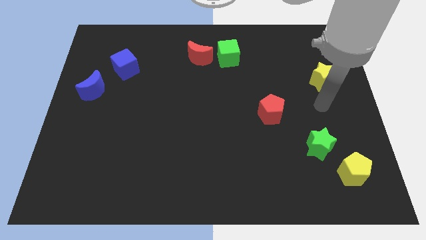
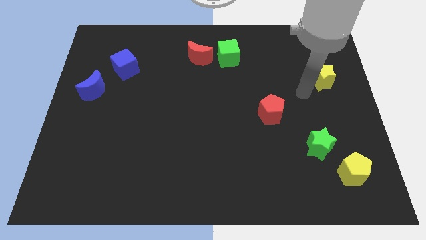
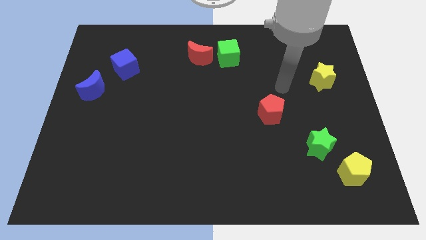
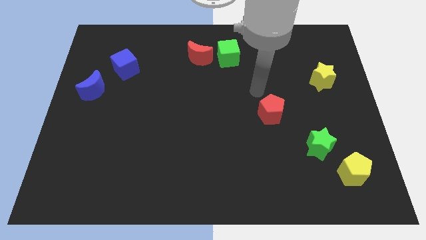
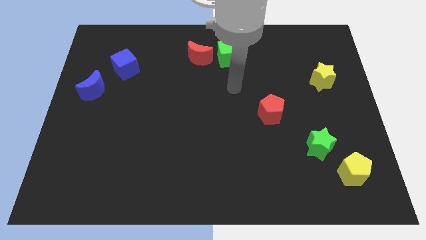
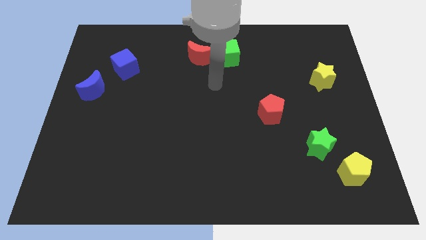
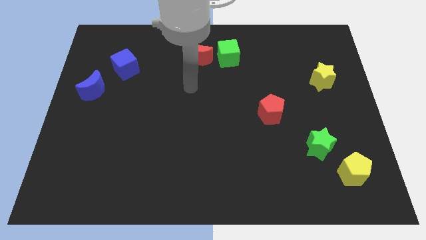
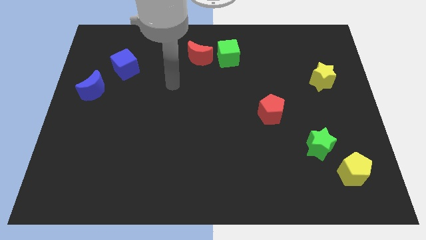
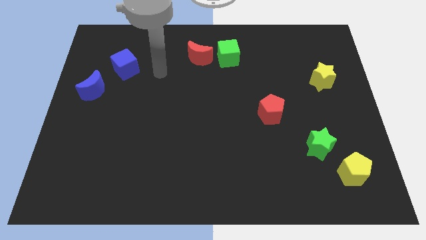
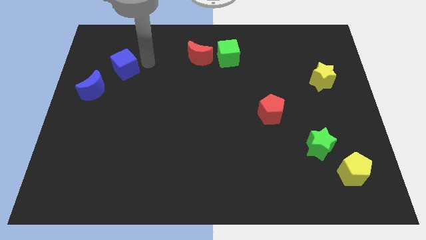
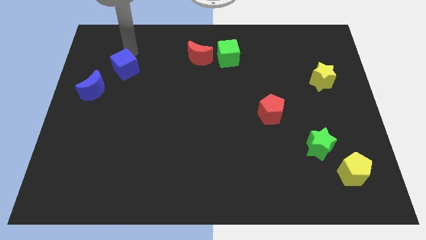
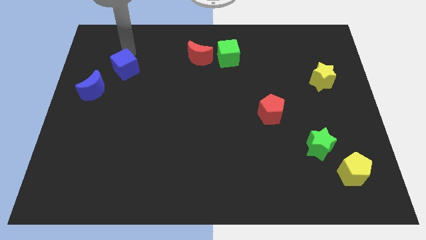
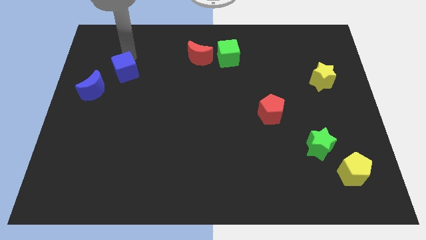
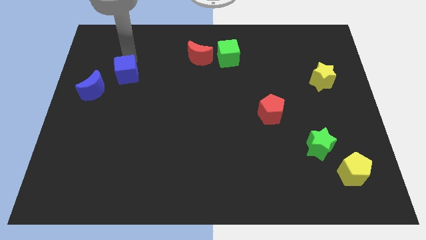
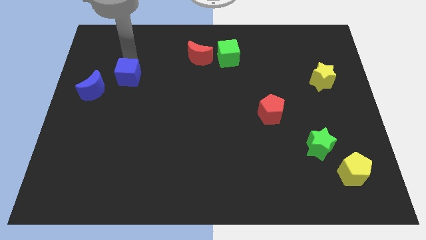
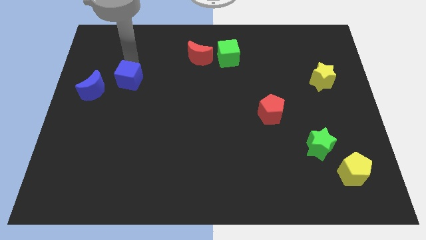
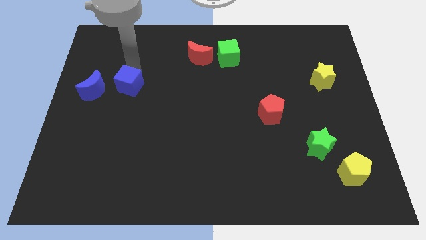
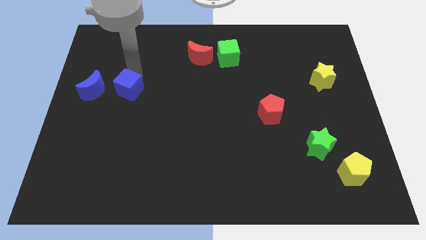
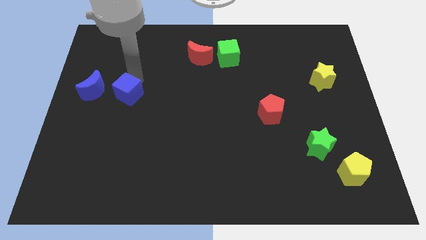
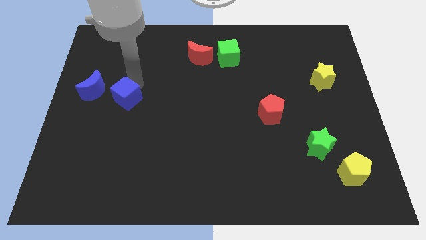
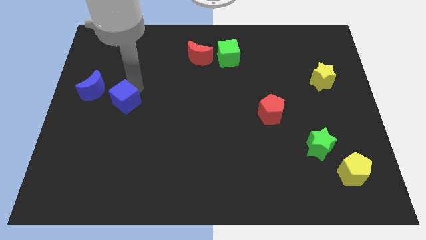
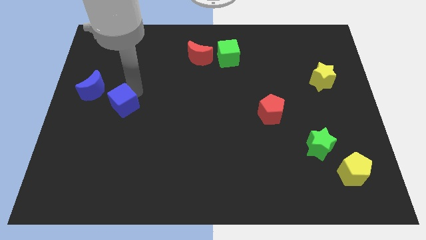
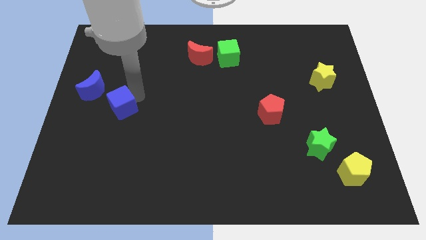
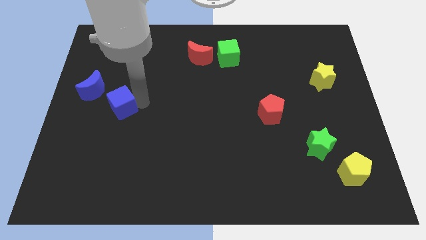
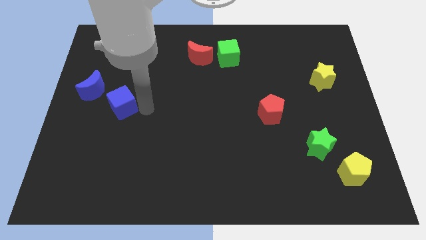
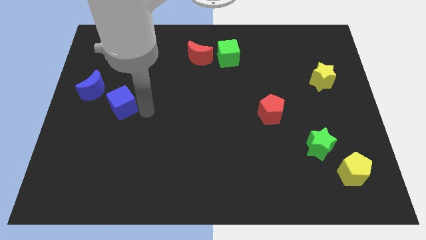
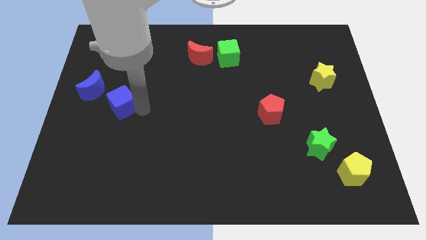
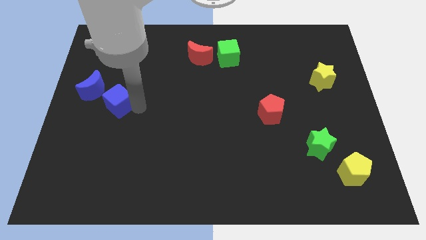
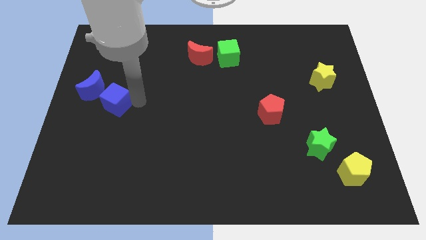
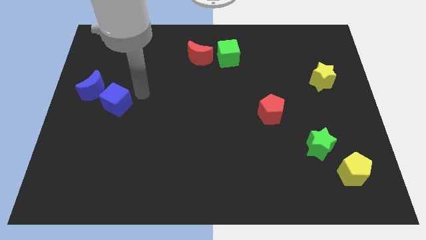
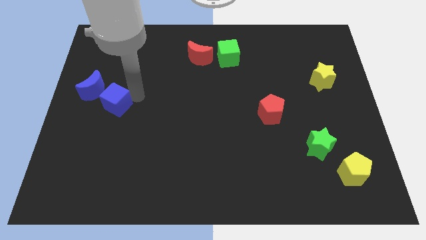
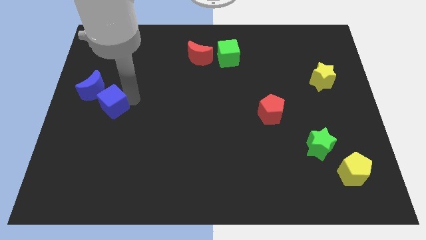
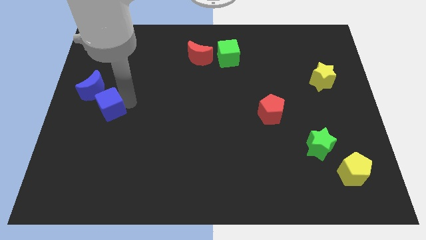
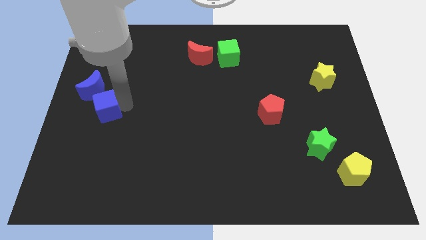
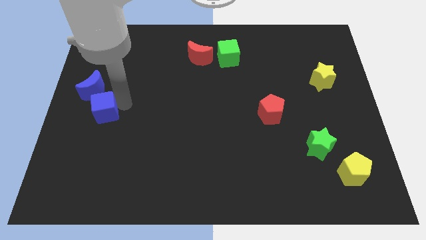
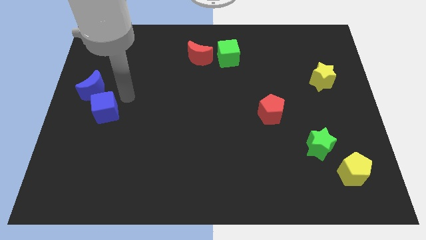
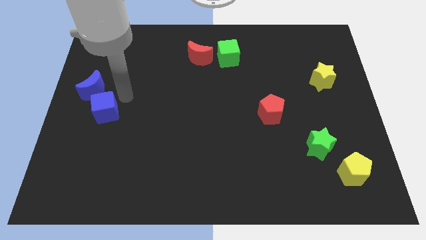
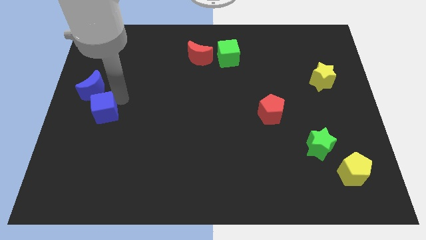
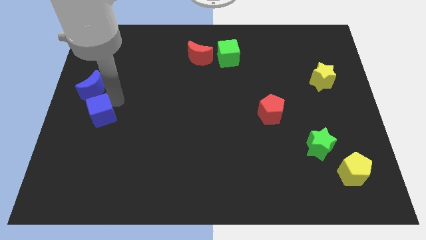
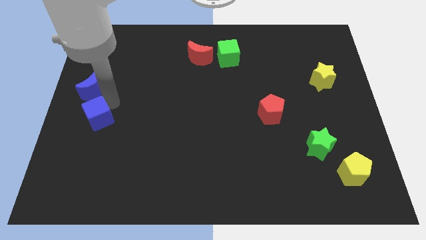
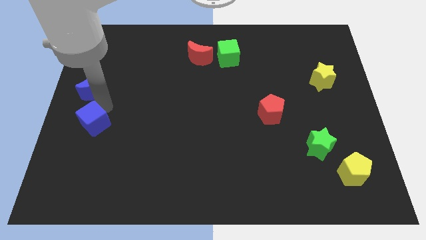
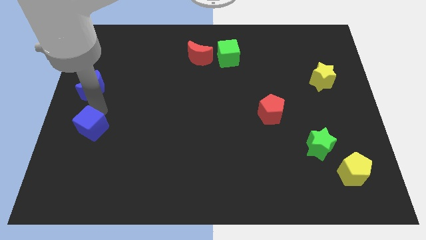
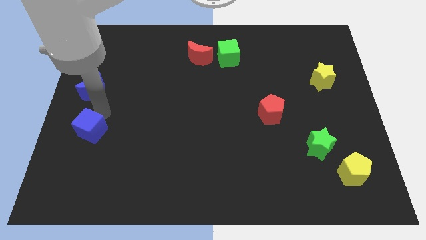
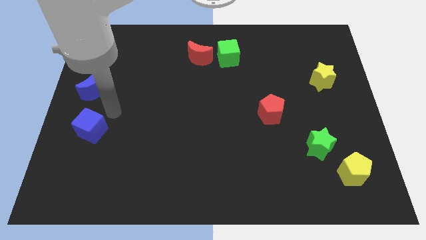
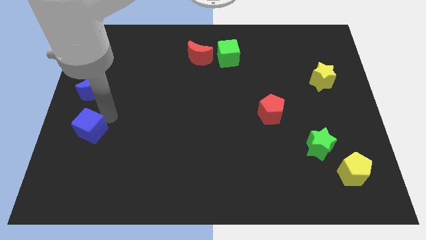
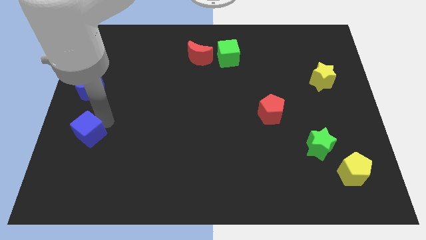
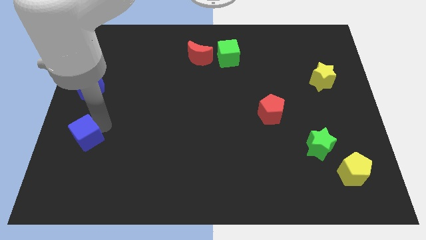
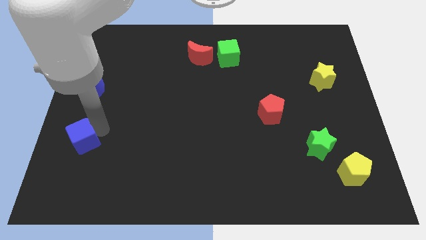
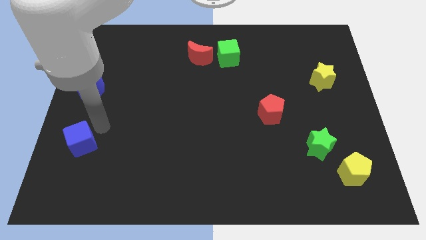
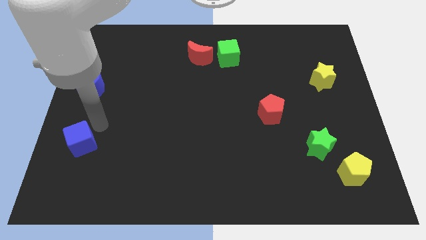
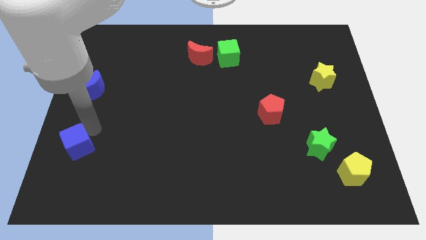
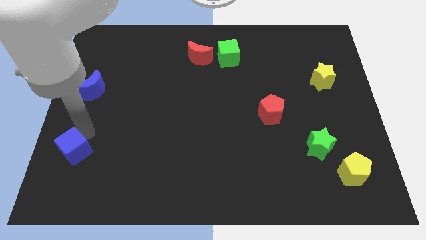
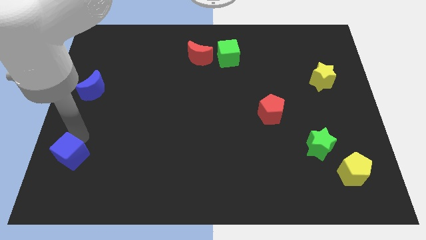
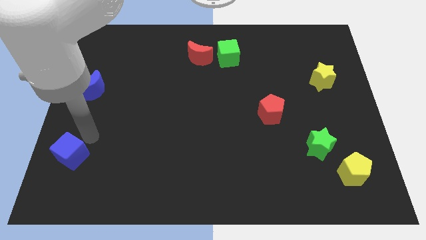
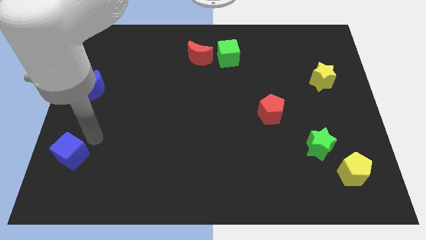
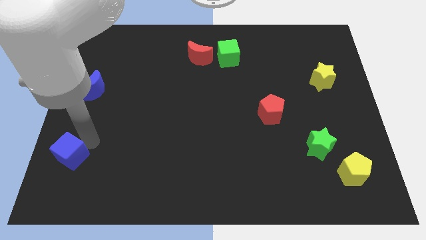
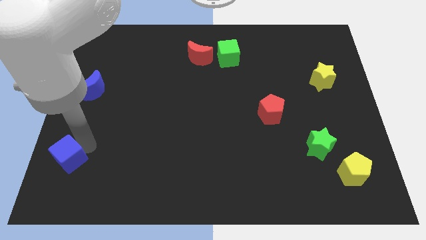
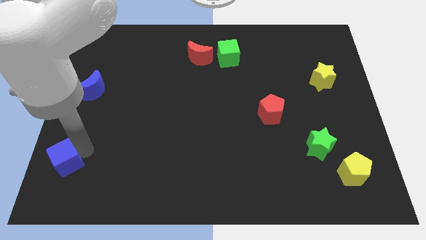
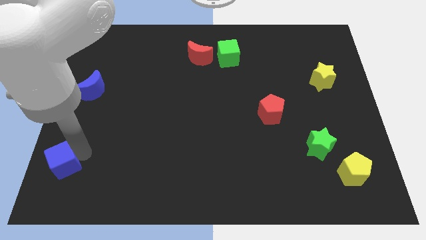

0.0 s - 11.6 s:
move the blue cube to the lower left corner
